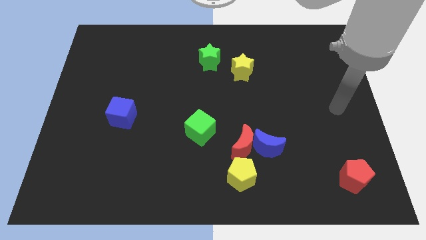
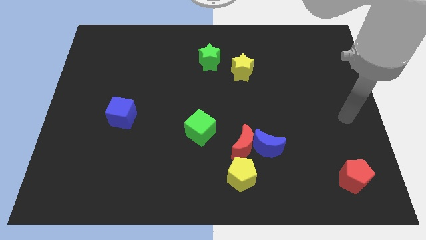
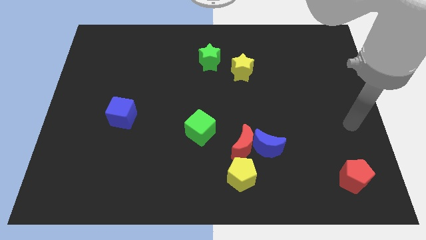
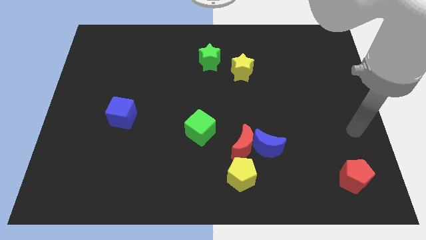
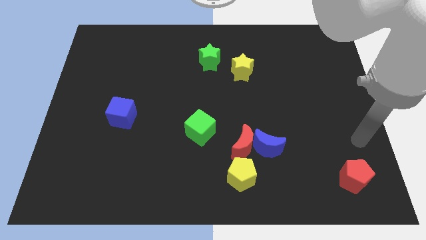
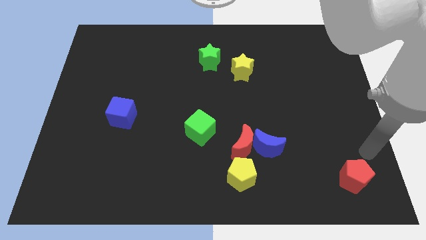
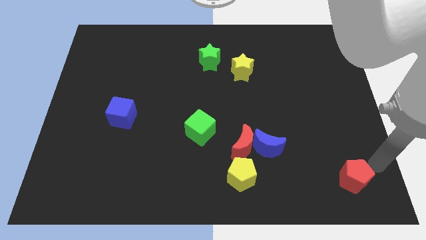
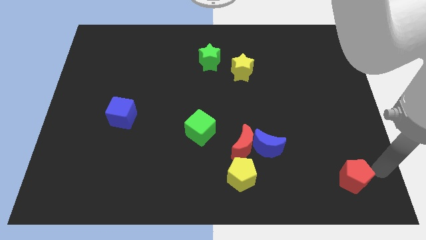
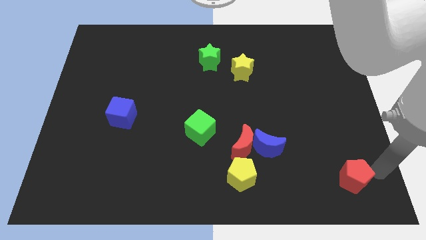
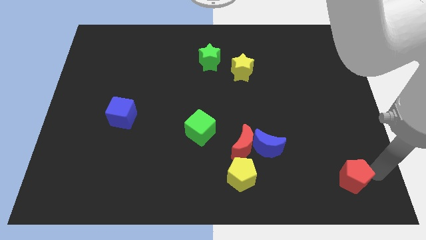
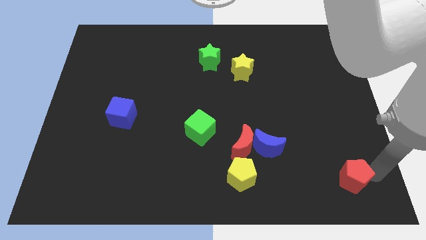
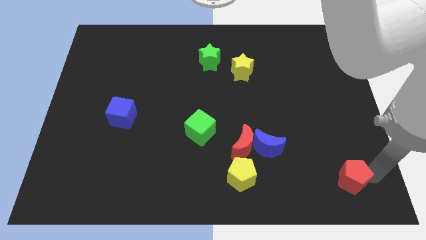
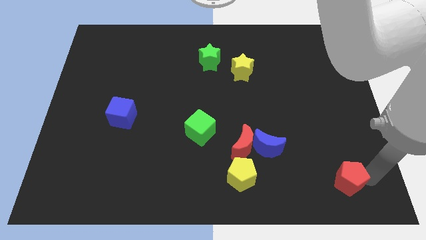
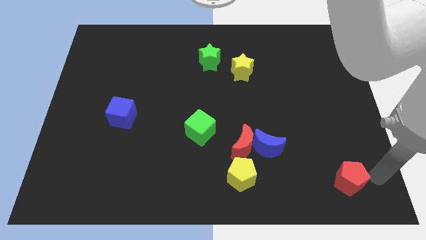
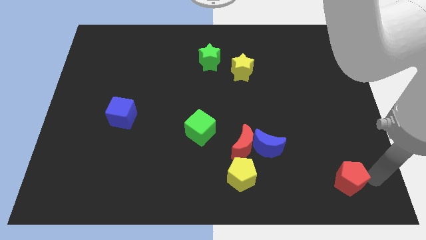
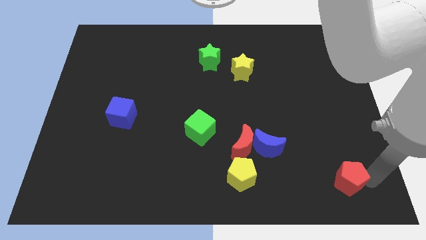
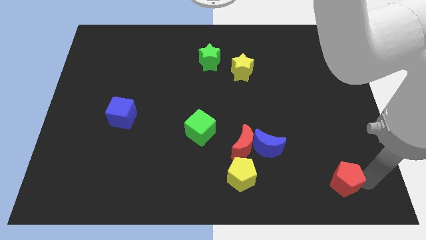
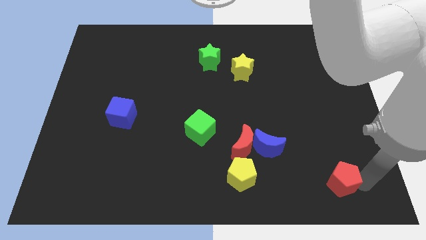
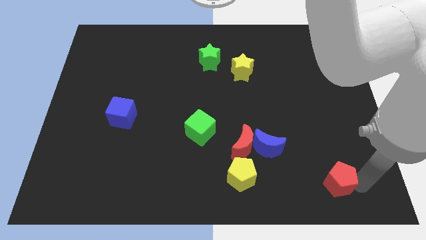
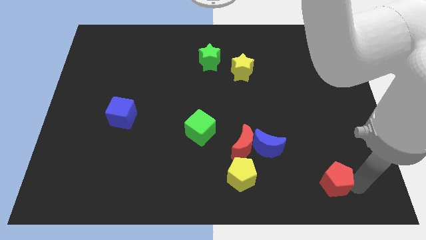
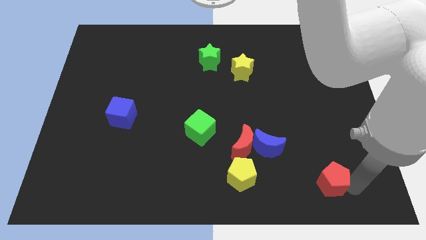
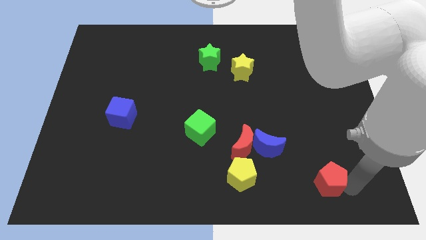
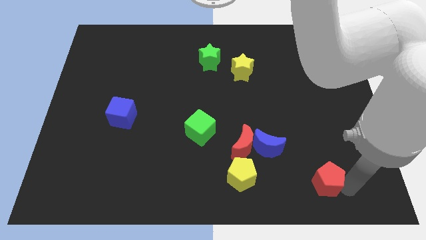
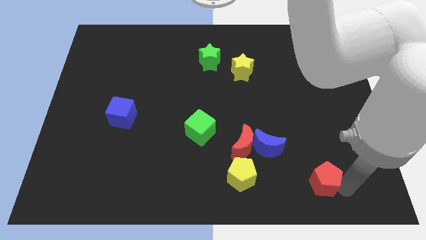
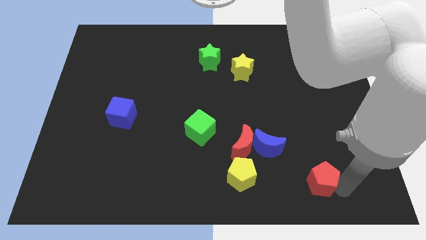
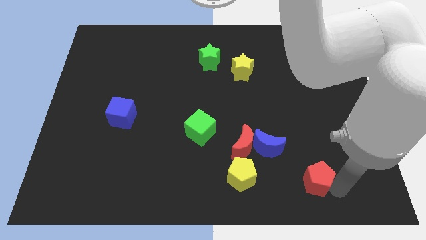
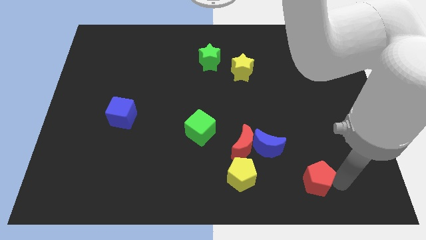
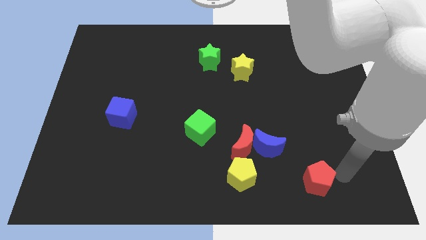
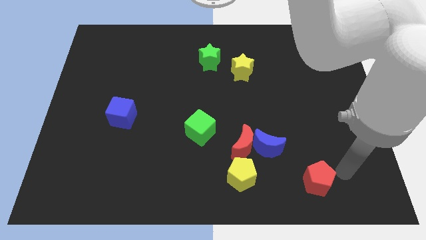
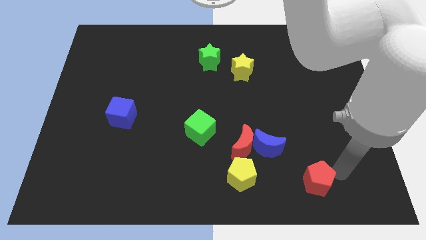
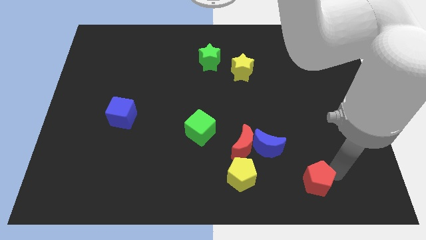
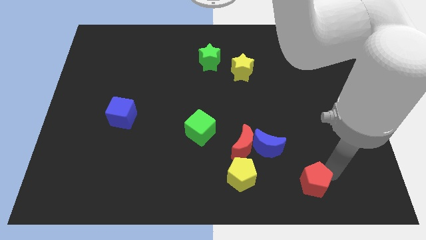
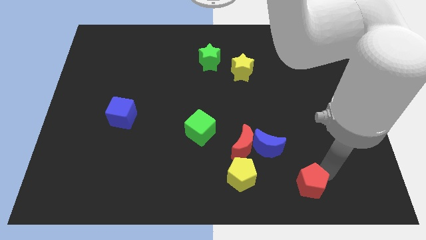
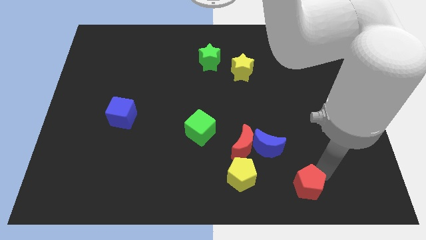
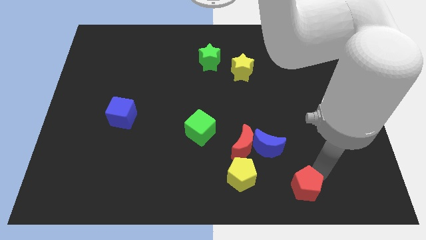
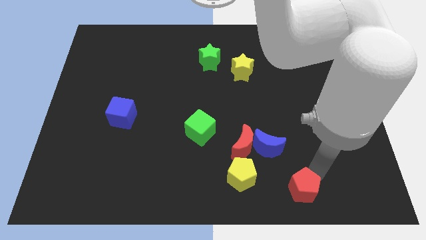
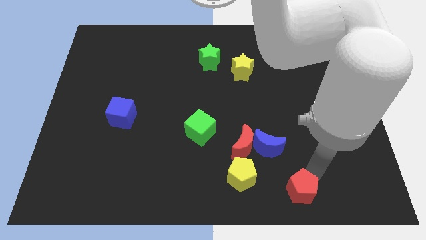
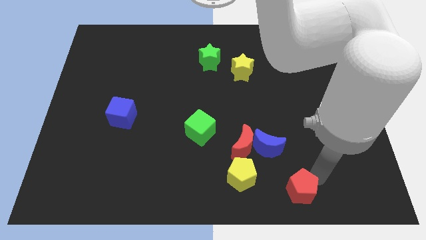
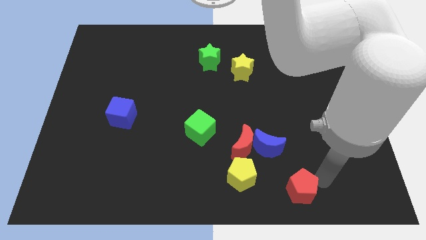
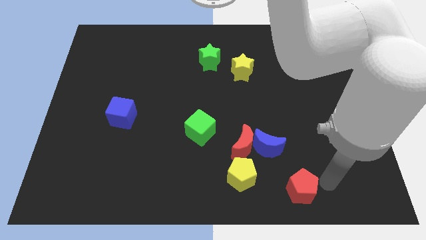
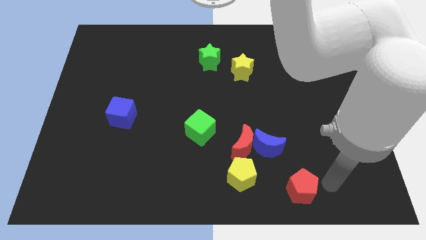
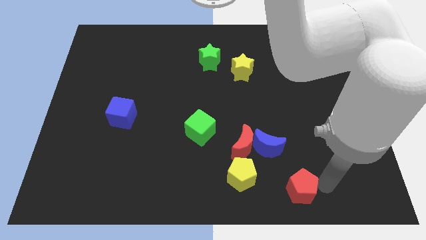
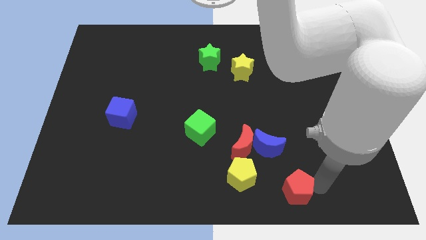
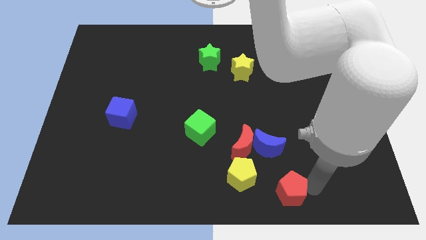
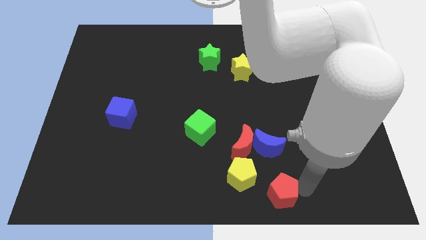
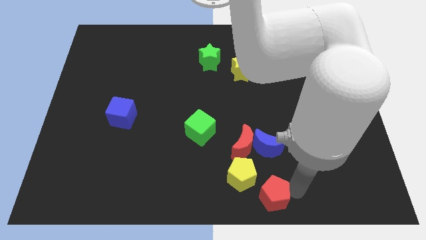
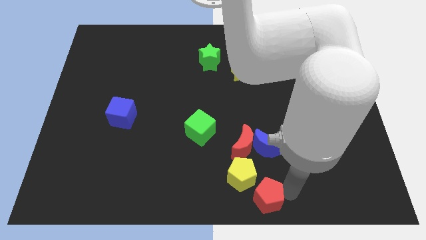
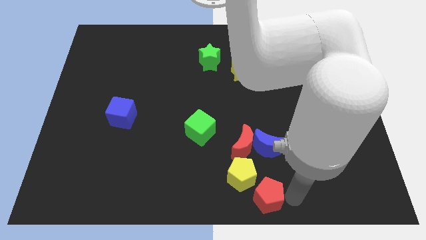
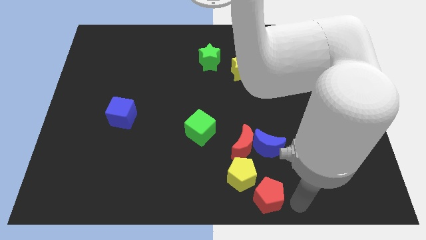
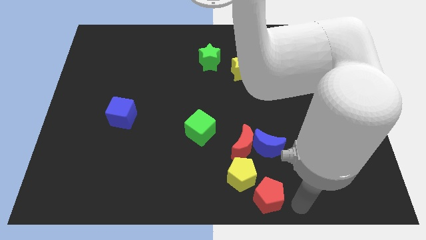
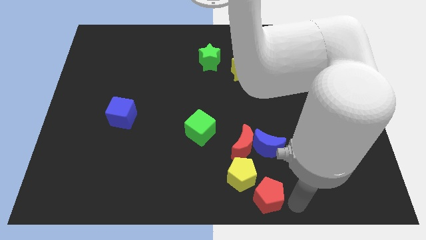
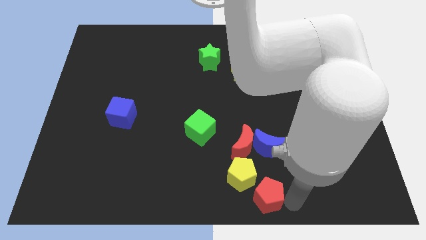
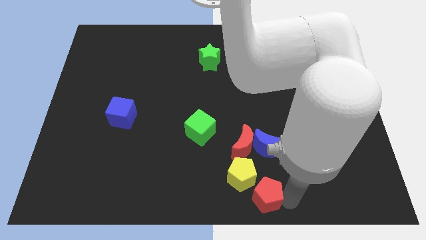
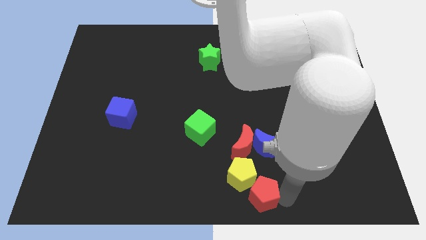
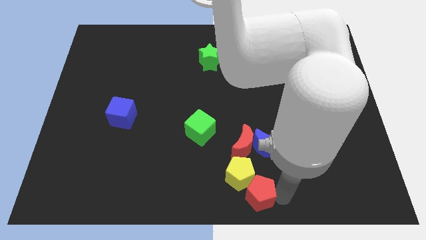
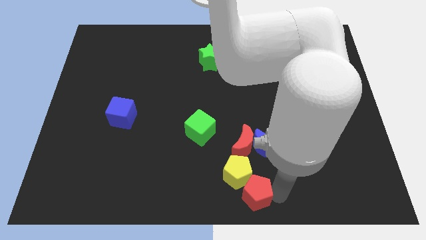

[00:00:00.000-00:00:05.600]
push the red pentagon to the left

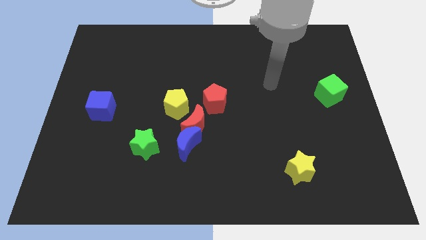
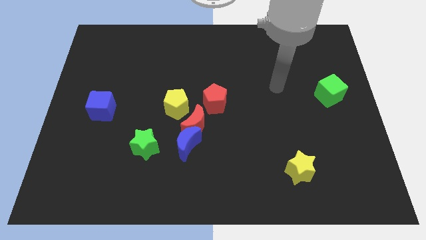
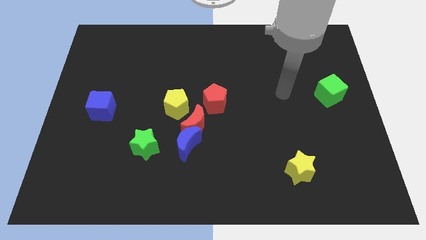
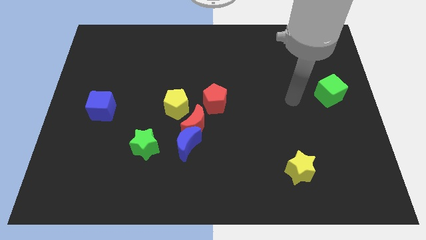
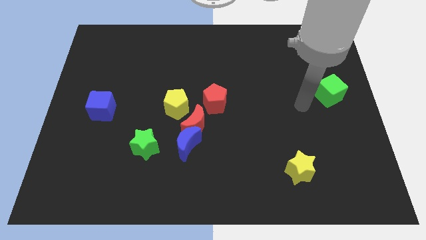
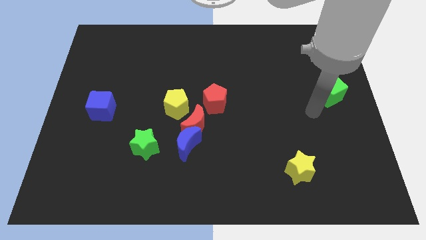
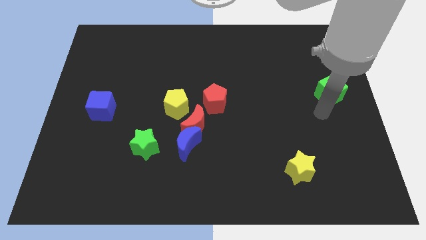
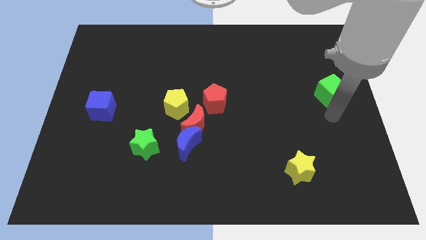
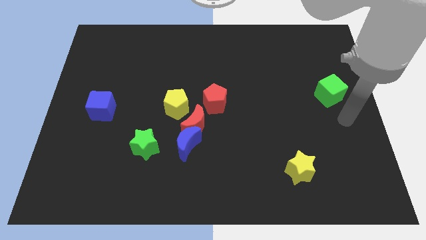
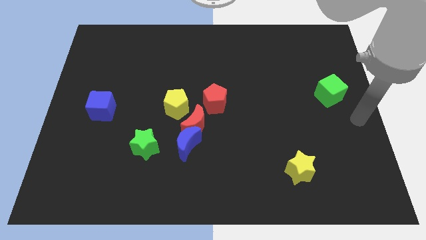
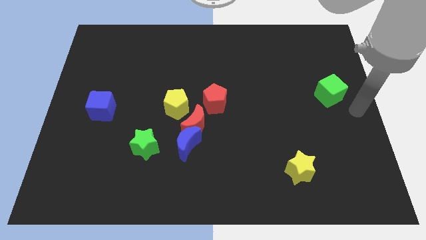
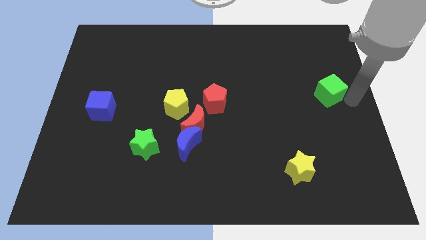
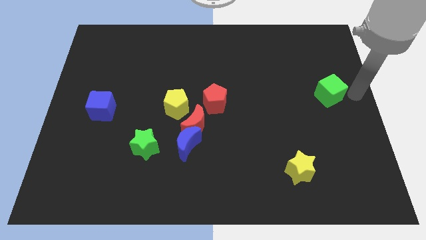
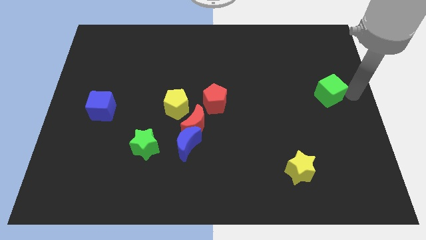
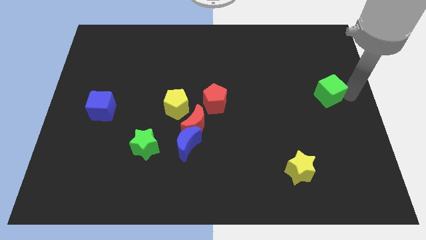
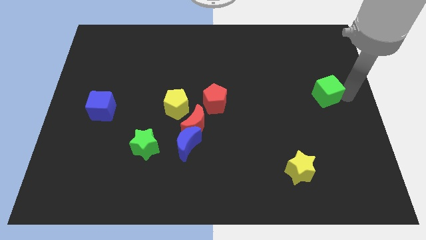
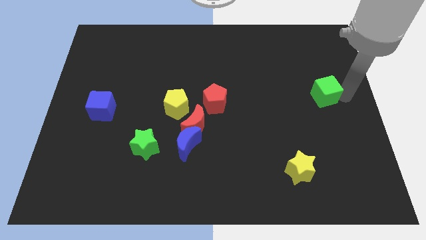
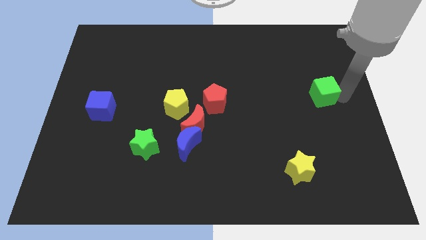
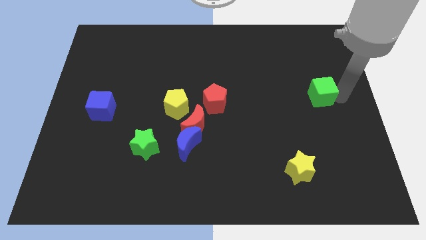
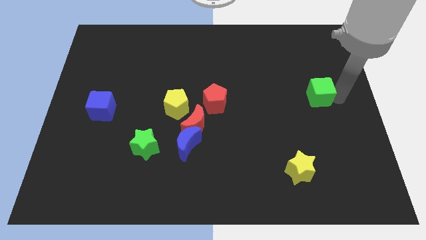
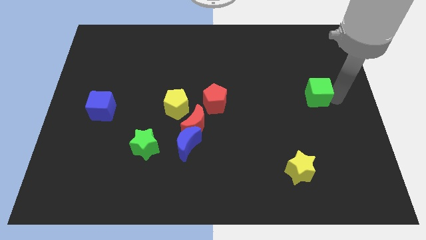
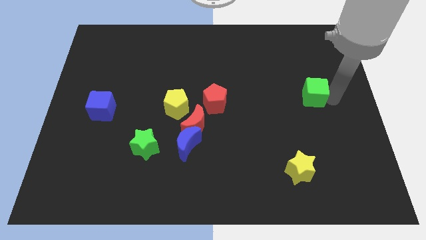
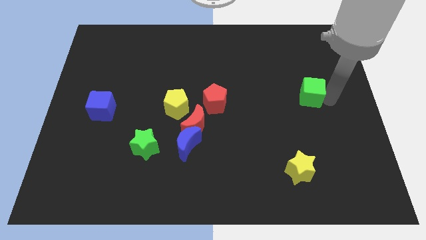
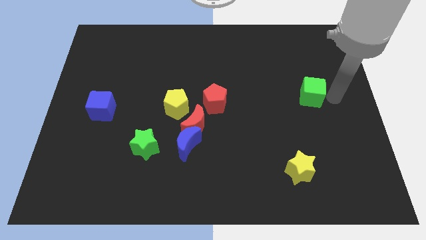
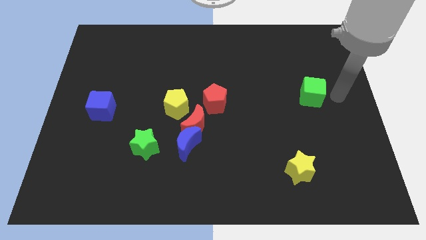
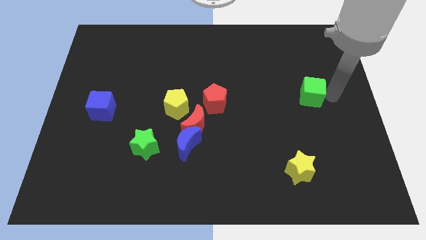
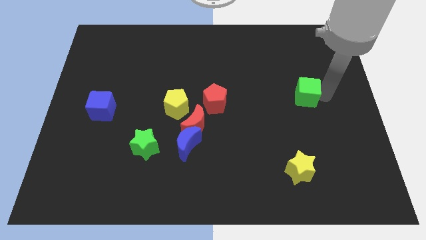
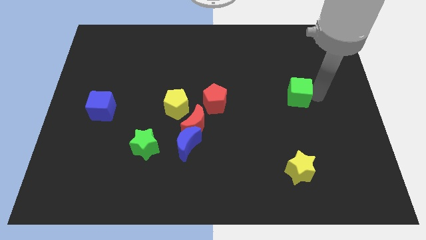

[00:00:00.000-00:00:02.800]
move the green cube to the left somewhat
